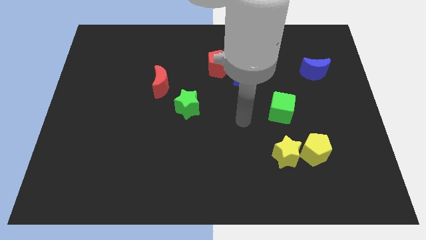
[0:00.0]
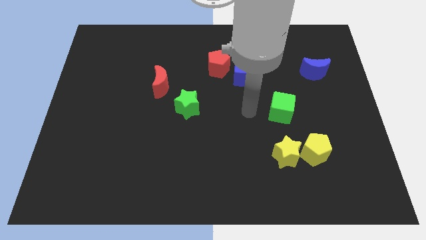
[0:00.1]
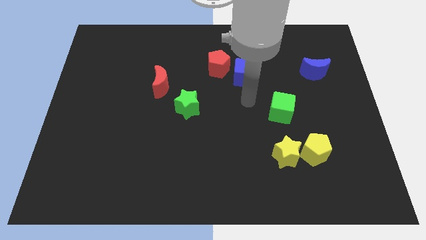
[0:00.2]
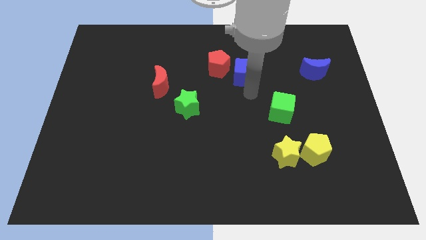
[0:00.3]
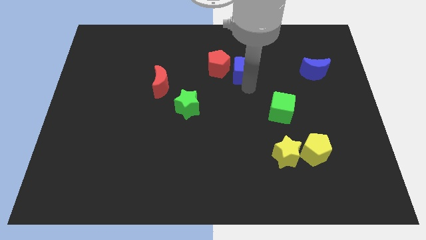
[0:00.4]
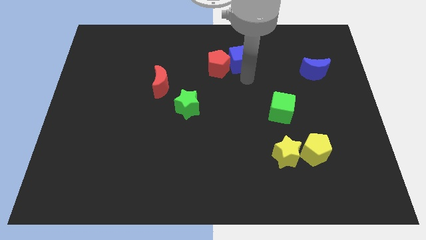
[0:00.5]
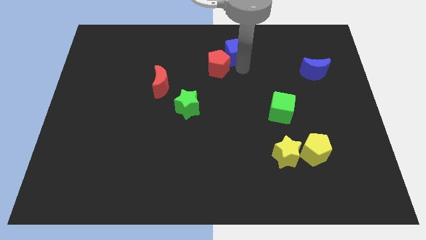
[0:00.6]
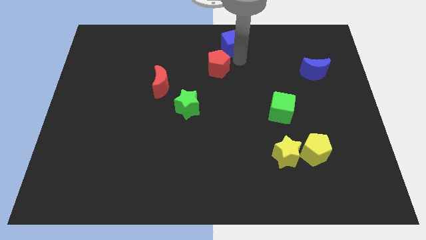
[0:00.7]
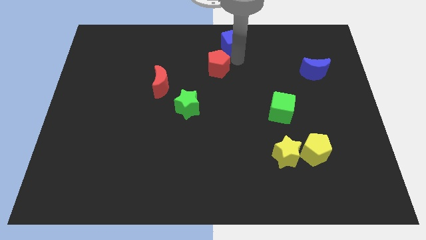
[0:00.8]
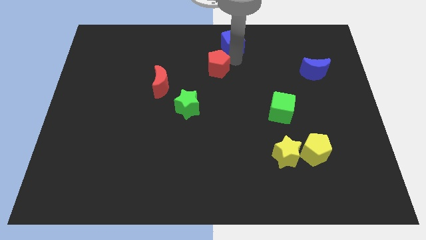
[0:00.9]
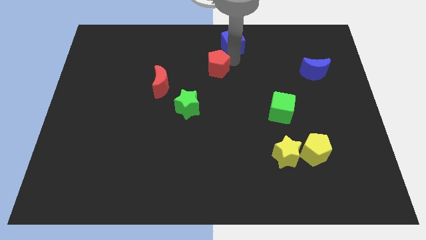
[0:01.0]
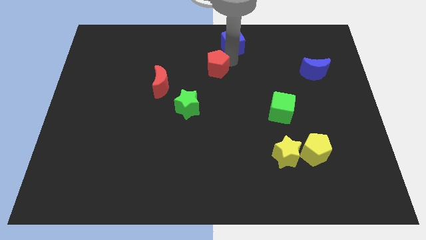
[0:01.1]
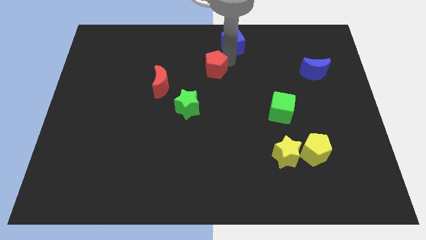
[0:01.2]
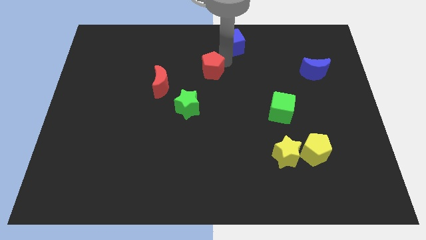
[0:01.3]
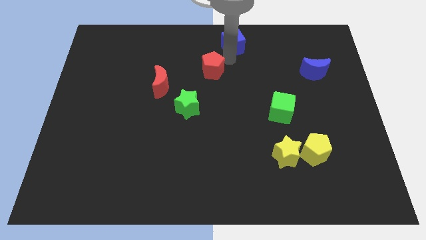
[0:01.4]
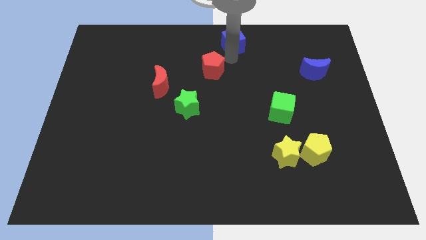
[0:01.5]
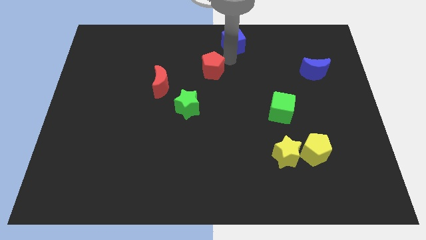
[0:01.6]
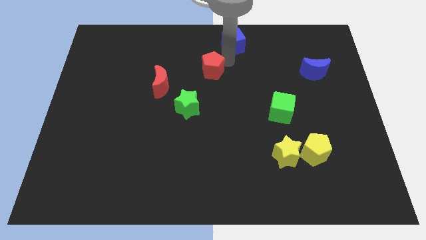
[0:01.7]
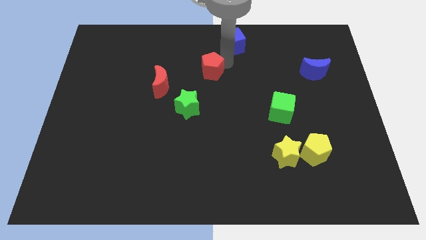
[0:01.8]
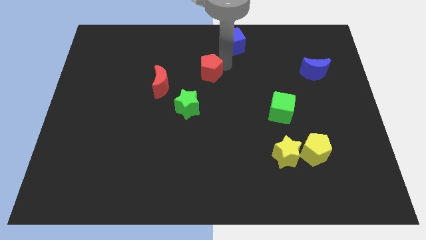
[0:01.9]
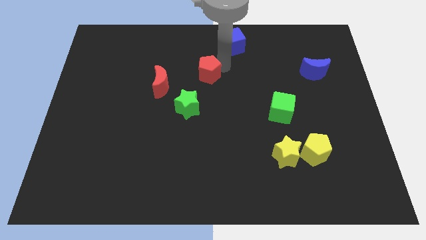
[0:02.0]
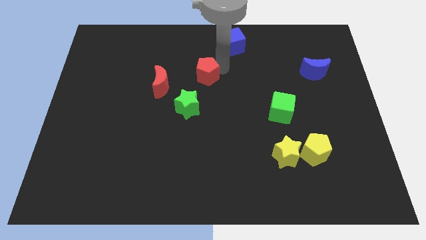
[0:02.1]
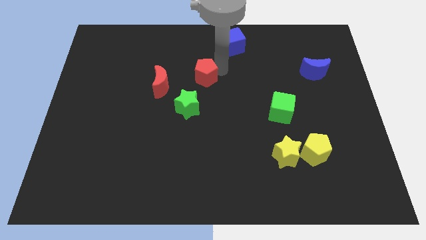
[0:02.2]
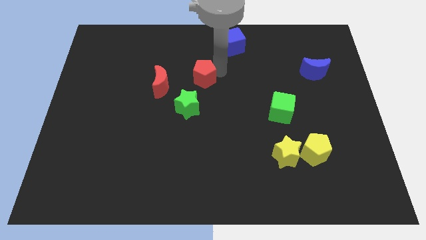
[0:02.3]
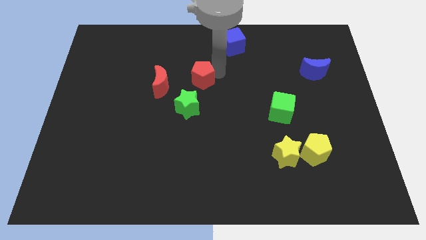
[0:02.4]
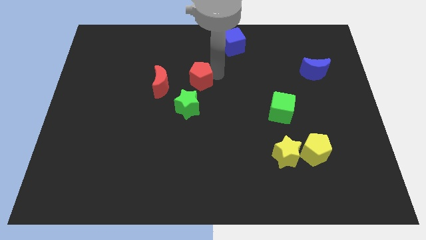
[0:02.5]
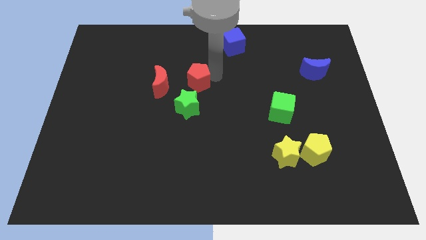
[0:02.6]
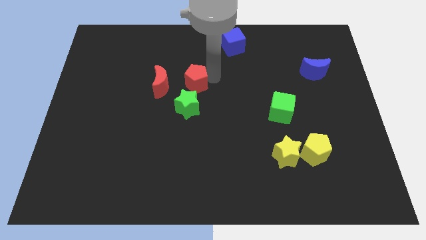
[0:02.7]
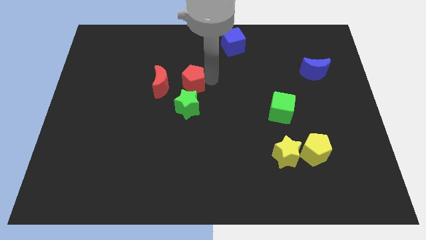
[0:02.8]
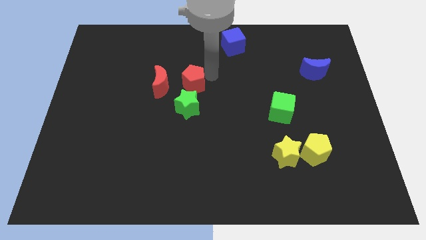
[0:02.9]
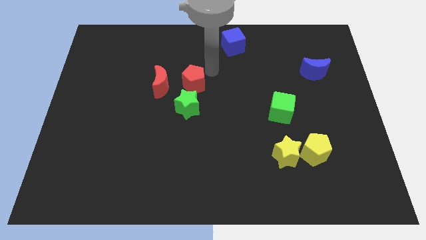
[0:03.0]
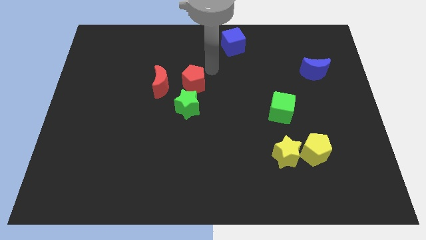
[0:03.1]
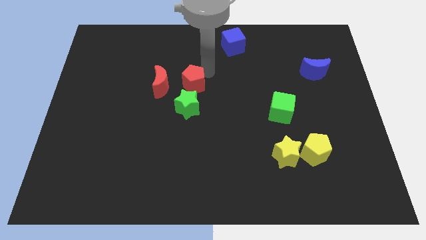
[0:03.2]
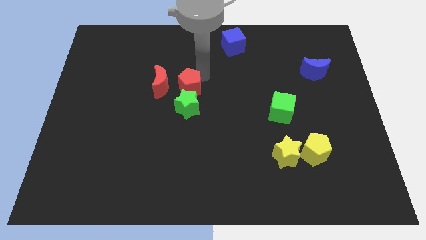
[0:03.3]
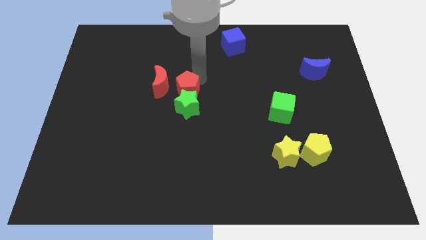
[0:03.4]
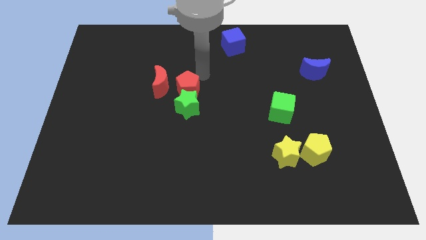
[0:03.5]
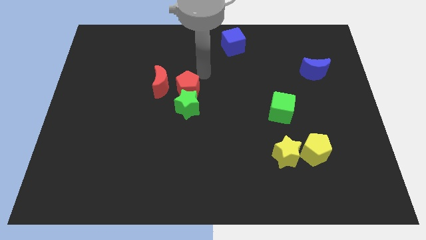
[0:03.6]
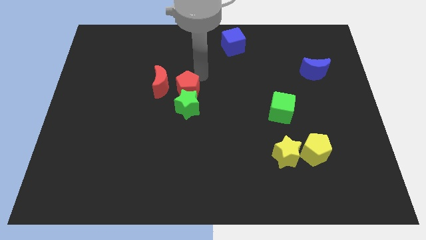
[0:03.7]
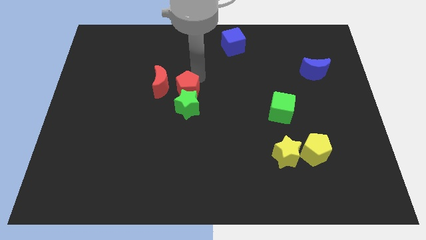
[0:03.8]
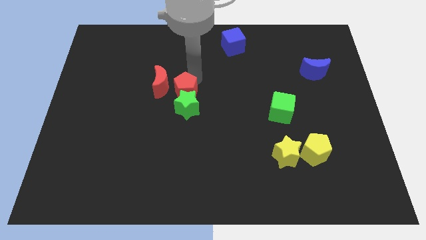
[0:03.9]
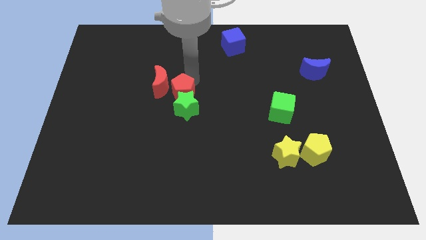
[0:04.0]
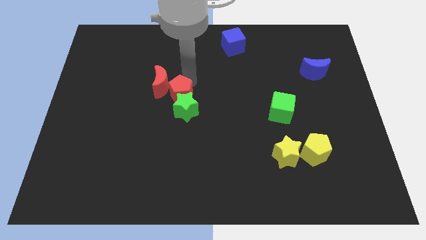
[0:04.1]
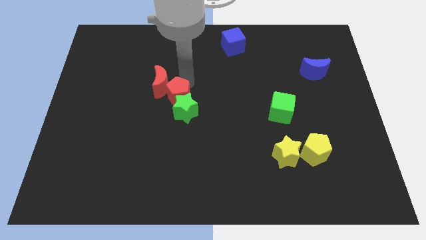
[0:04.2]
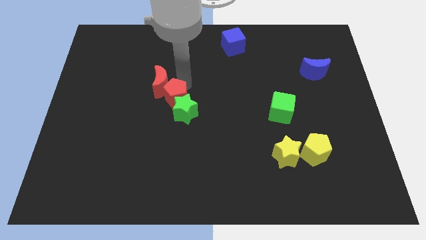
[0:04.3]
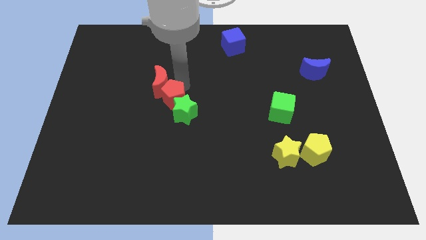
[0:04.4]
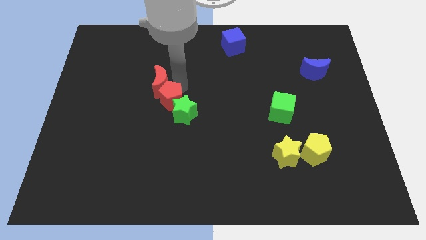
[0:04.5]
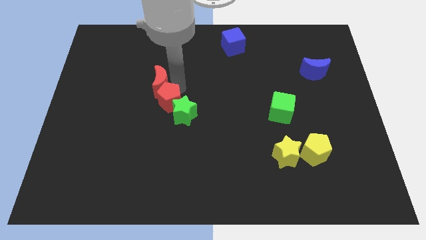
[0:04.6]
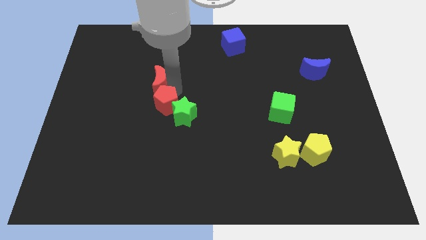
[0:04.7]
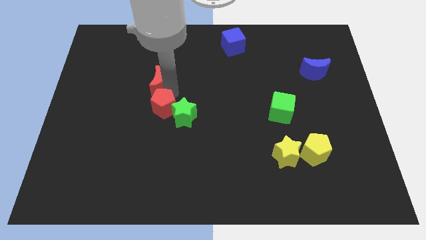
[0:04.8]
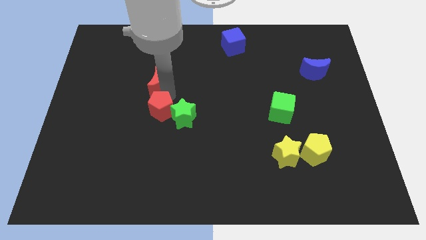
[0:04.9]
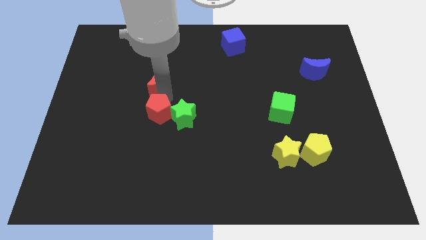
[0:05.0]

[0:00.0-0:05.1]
slide the red pentagon downwards and then to the left

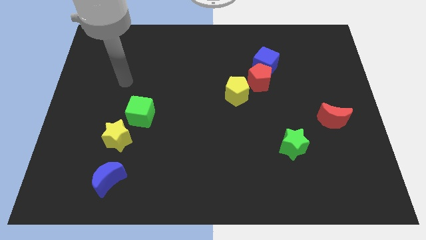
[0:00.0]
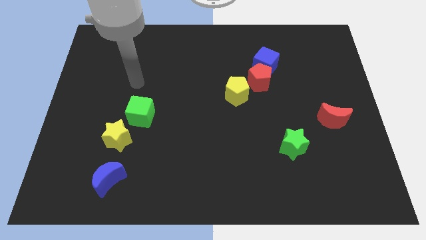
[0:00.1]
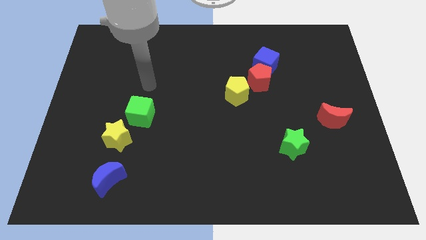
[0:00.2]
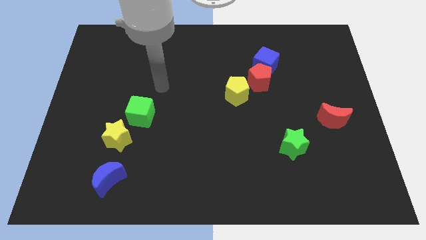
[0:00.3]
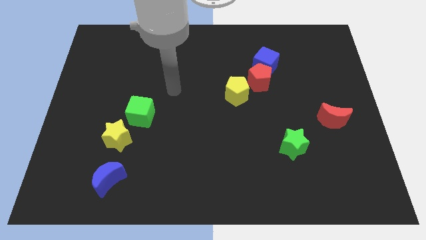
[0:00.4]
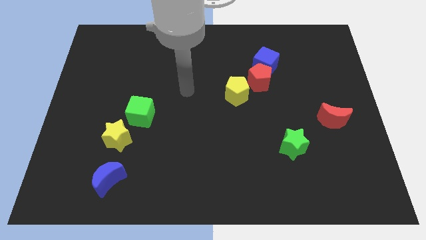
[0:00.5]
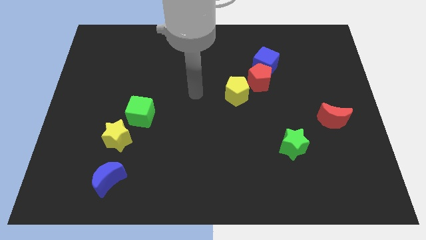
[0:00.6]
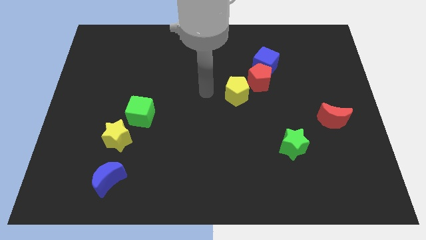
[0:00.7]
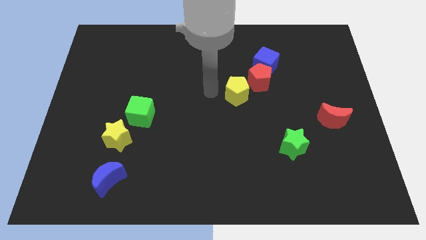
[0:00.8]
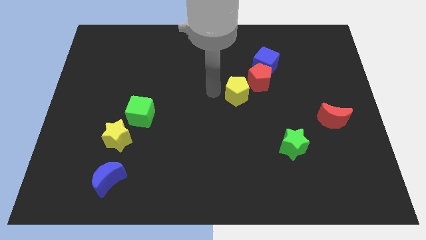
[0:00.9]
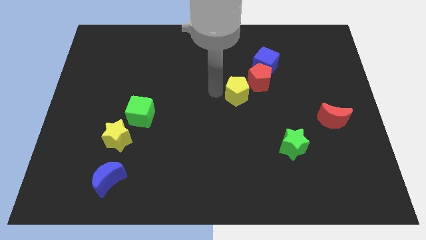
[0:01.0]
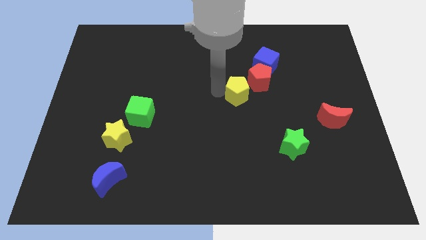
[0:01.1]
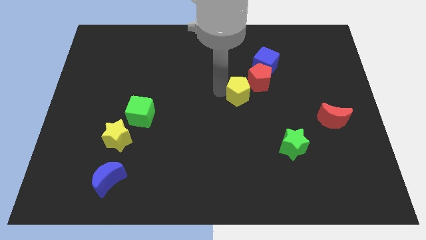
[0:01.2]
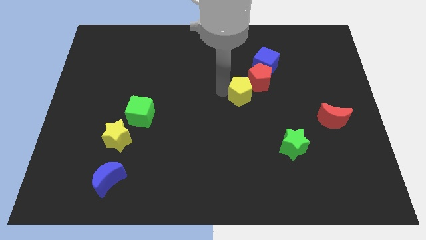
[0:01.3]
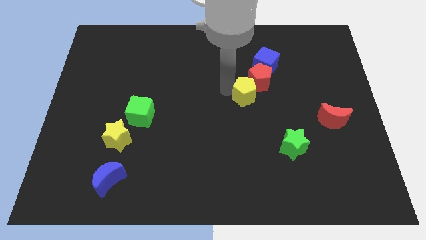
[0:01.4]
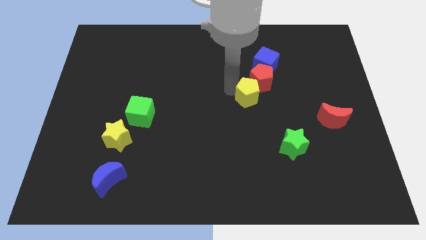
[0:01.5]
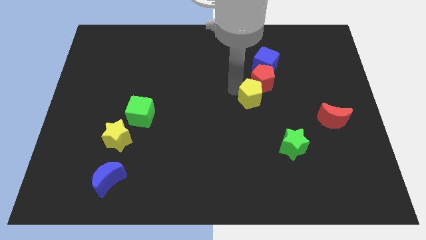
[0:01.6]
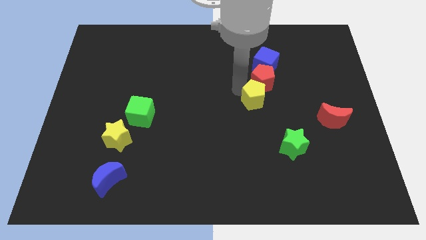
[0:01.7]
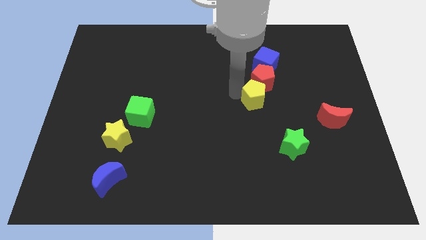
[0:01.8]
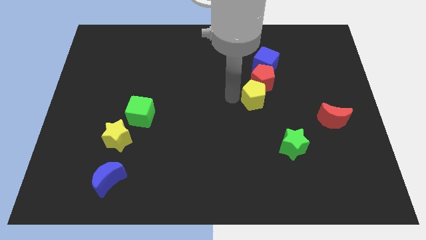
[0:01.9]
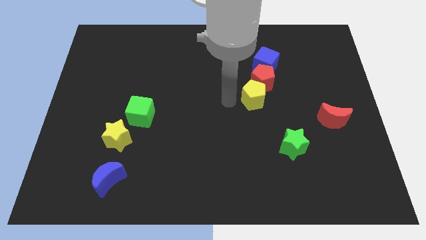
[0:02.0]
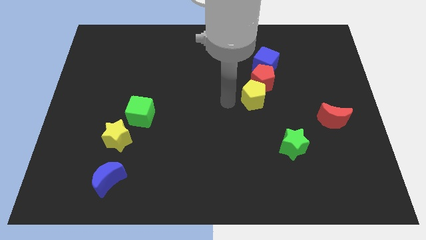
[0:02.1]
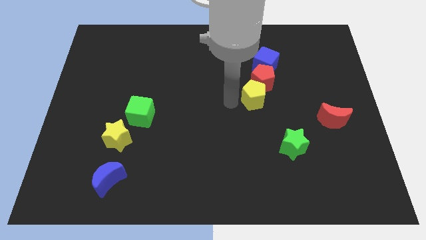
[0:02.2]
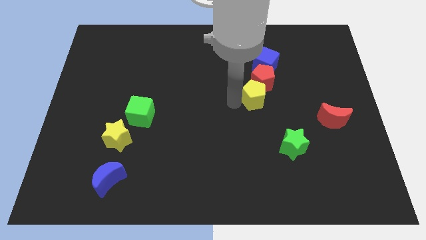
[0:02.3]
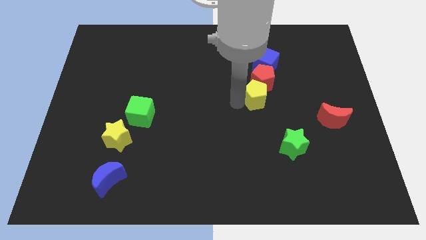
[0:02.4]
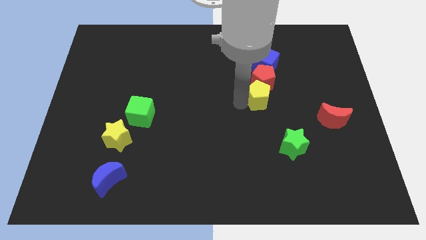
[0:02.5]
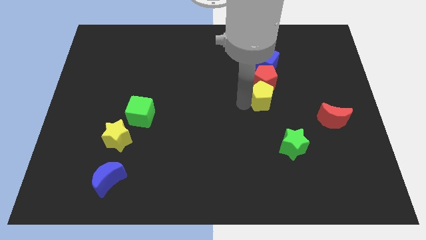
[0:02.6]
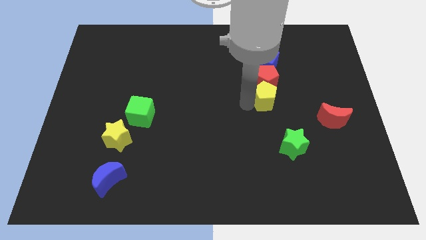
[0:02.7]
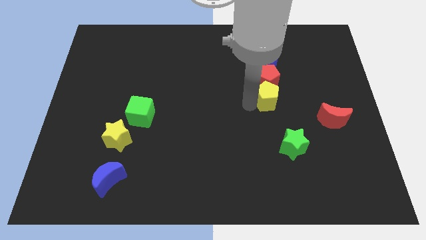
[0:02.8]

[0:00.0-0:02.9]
push the yellow pentagon right a bit

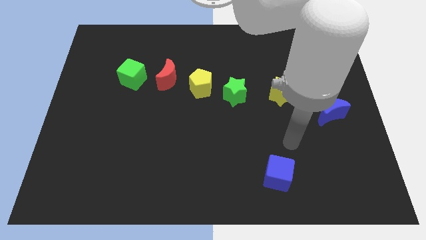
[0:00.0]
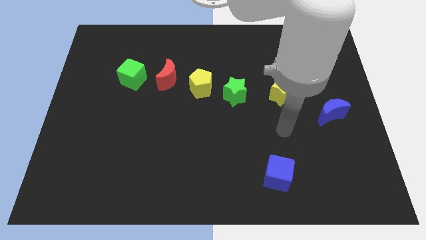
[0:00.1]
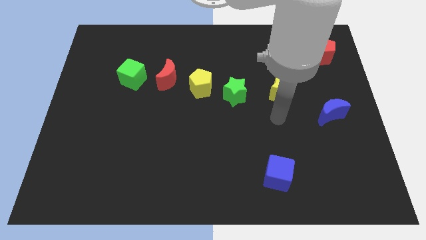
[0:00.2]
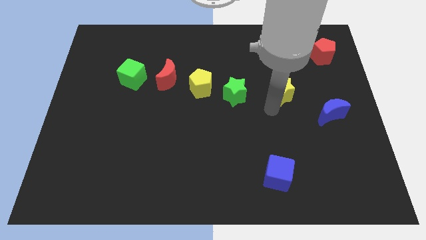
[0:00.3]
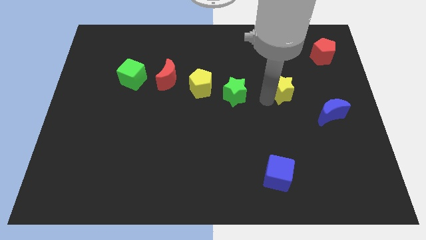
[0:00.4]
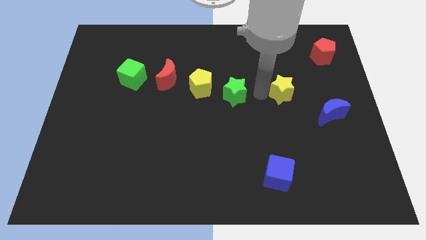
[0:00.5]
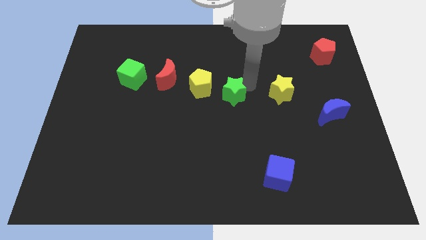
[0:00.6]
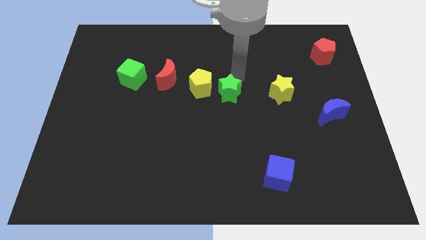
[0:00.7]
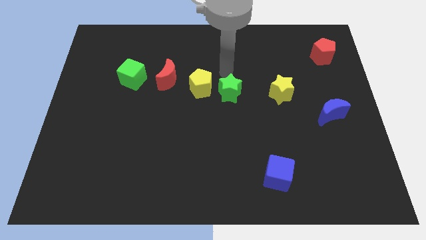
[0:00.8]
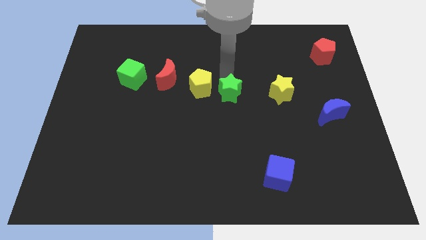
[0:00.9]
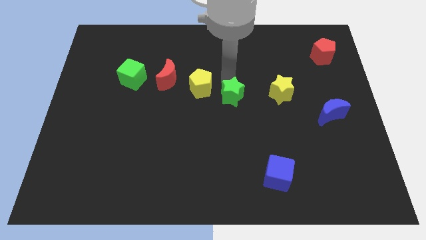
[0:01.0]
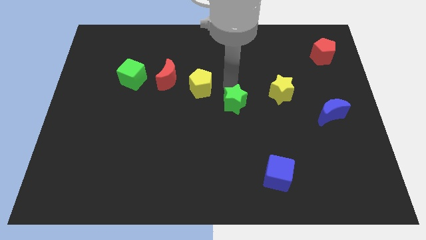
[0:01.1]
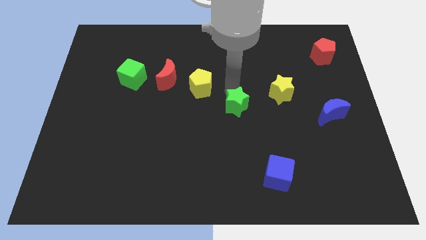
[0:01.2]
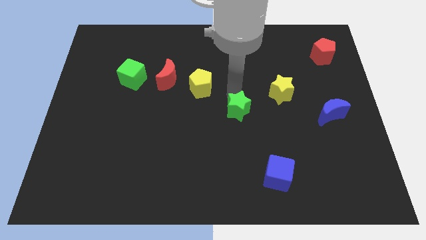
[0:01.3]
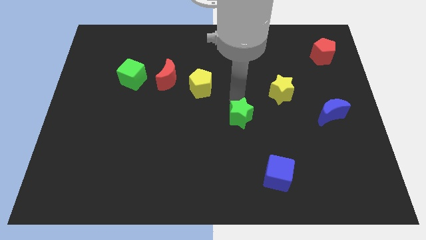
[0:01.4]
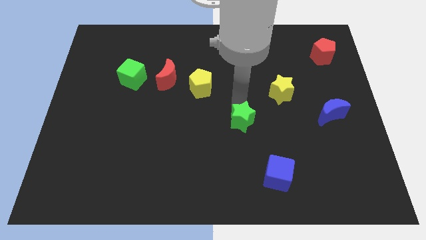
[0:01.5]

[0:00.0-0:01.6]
slide the green star slightly downwards
